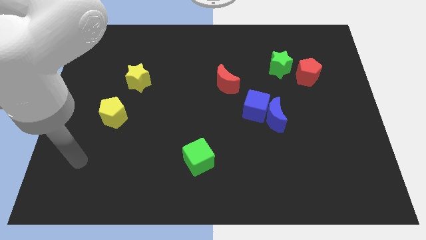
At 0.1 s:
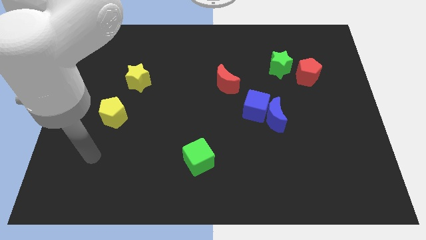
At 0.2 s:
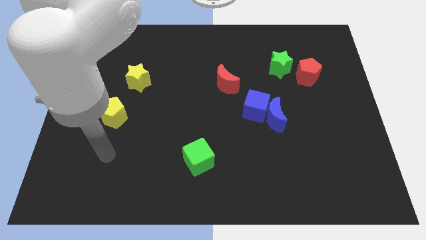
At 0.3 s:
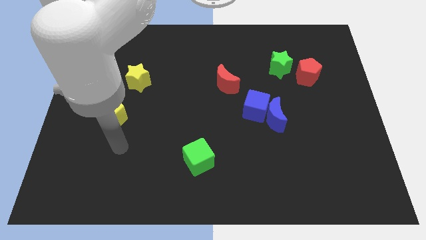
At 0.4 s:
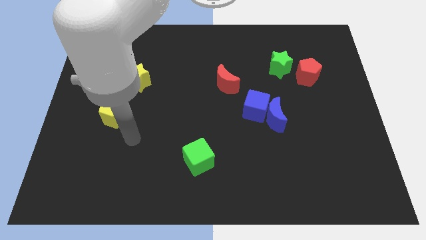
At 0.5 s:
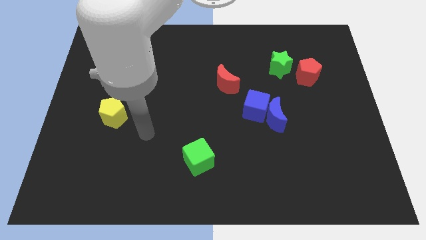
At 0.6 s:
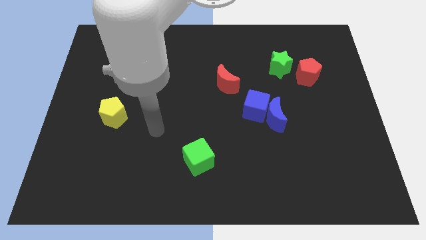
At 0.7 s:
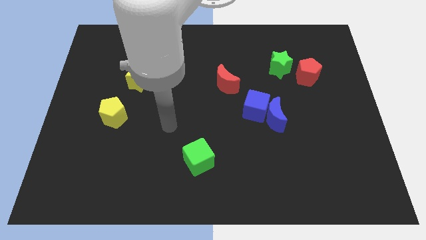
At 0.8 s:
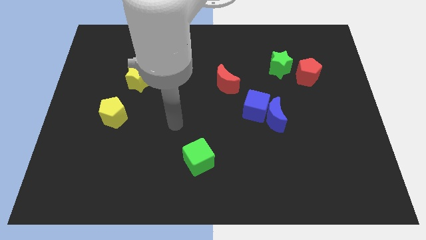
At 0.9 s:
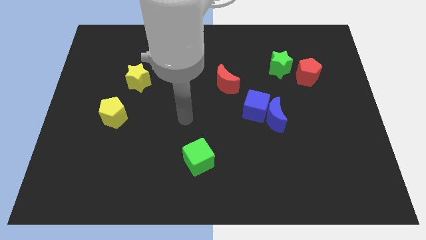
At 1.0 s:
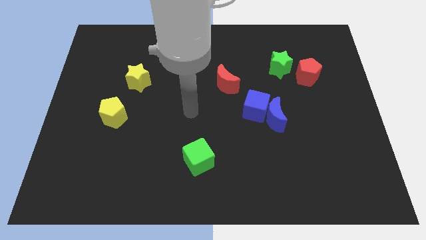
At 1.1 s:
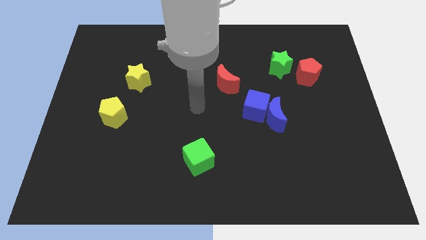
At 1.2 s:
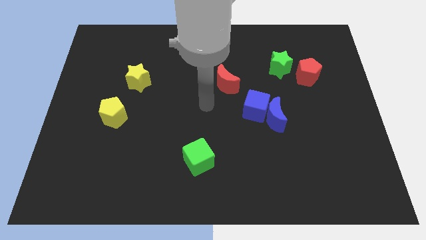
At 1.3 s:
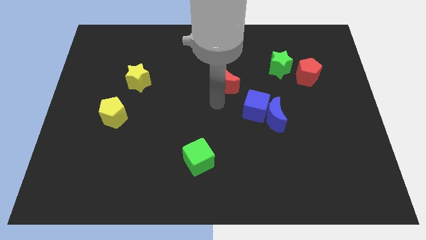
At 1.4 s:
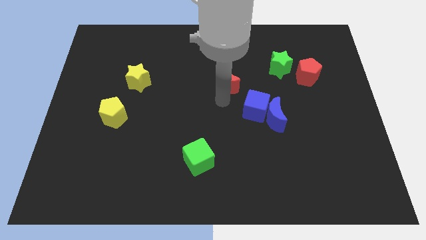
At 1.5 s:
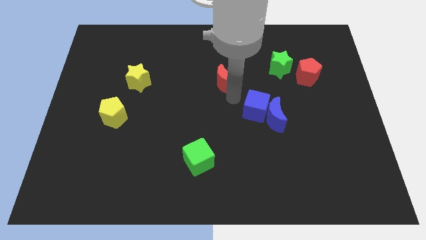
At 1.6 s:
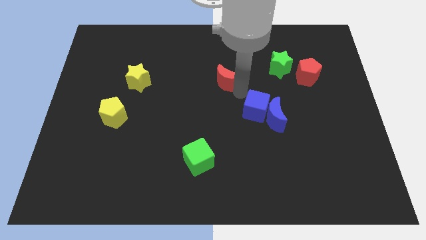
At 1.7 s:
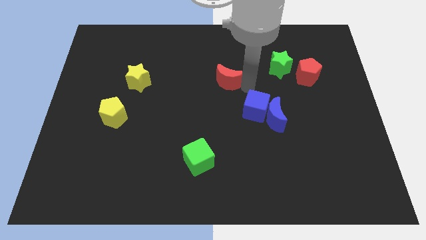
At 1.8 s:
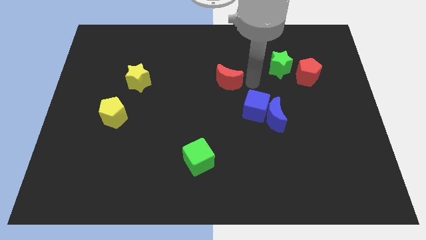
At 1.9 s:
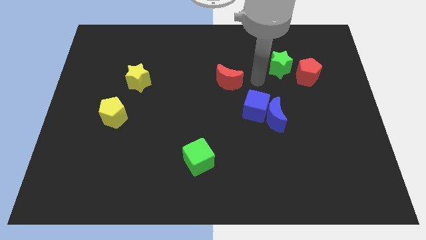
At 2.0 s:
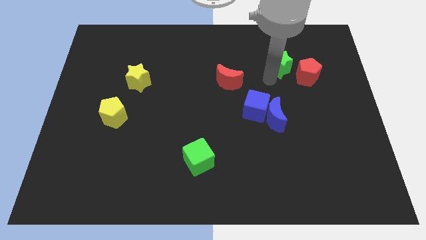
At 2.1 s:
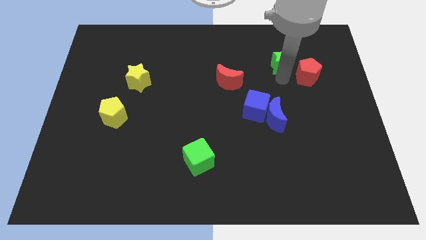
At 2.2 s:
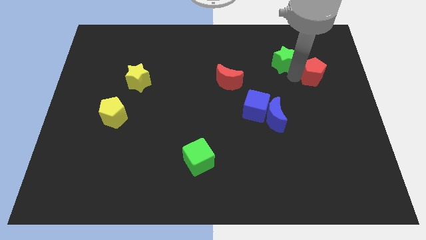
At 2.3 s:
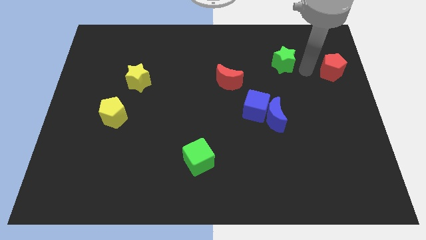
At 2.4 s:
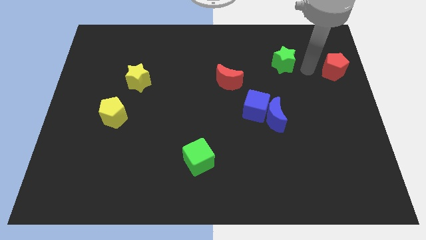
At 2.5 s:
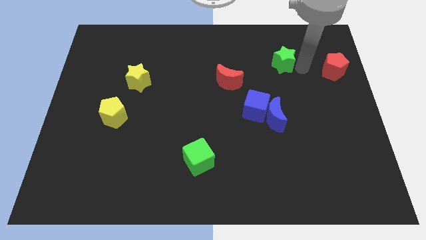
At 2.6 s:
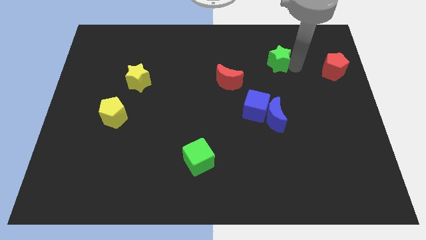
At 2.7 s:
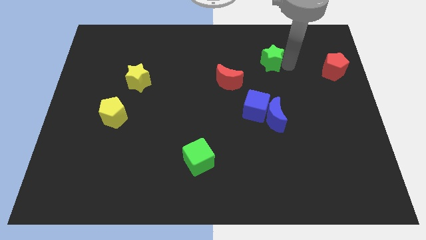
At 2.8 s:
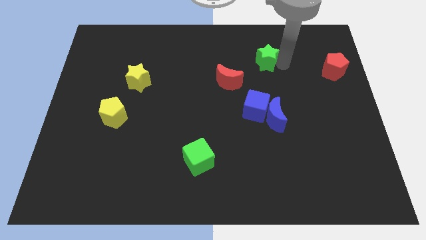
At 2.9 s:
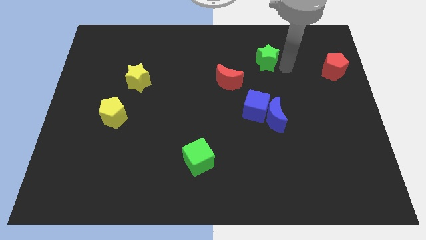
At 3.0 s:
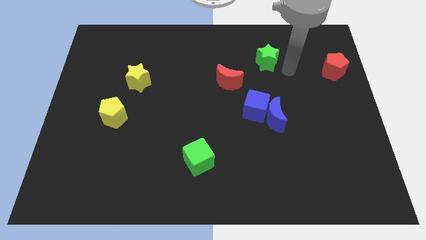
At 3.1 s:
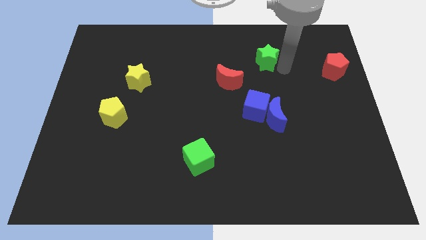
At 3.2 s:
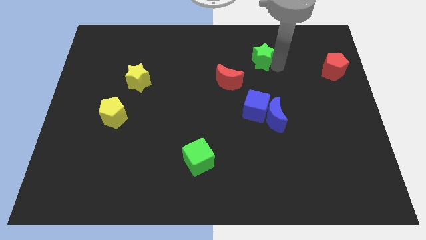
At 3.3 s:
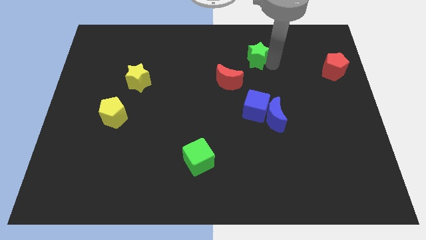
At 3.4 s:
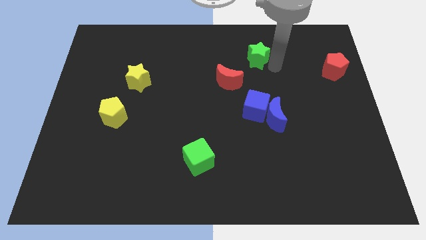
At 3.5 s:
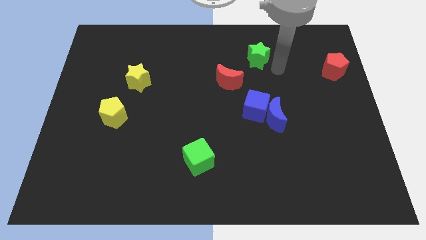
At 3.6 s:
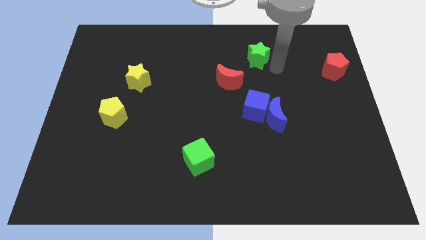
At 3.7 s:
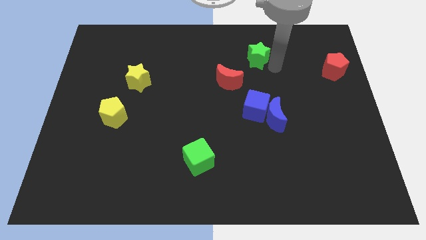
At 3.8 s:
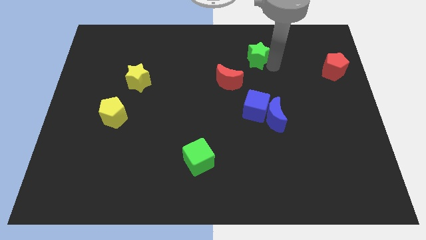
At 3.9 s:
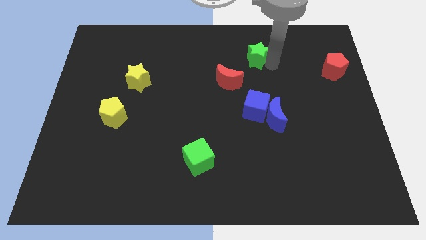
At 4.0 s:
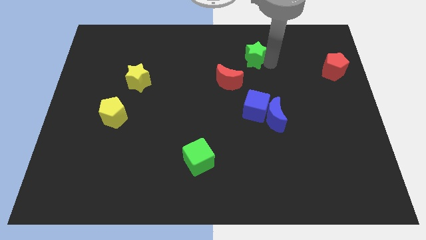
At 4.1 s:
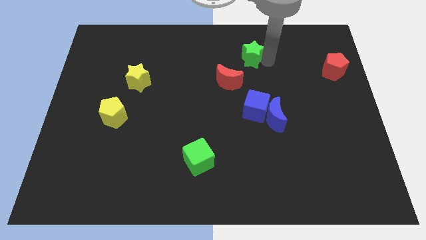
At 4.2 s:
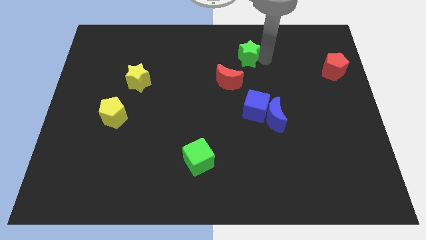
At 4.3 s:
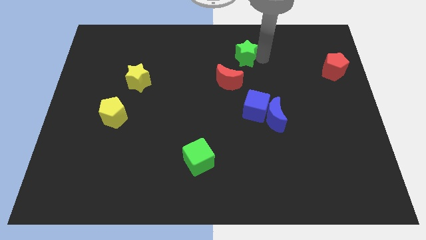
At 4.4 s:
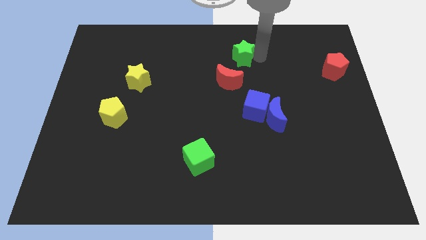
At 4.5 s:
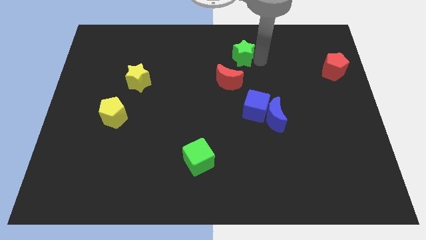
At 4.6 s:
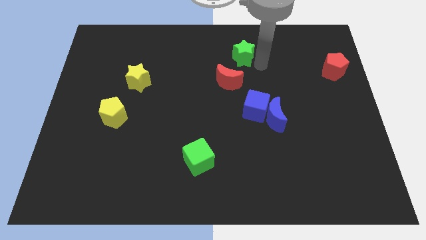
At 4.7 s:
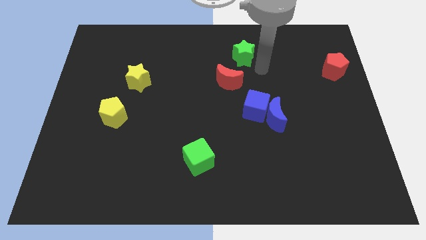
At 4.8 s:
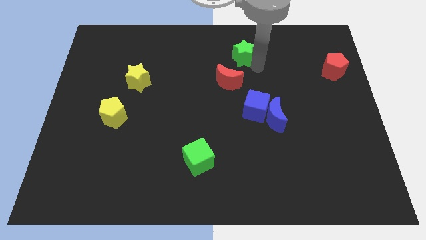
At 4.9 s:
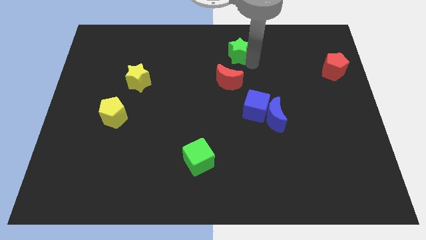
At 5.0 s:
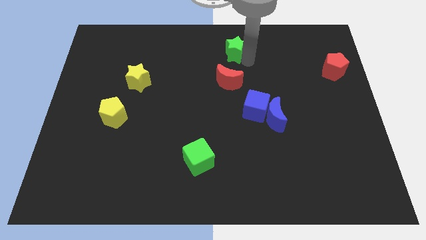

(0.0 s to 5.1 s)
put the green star to the top side

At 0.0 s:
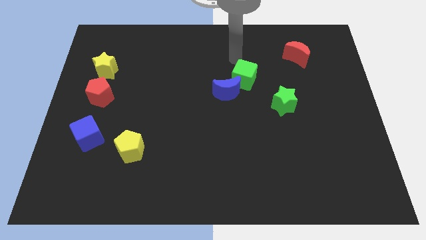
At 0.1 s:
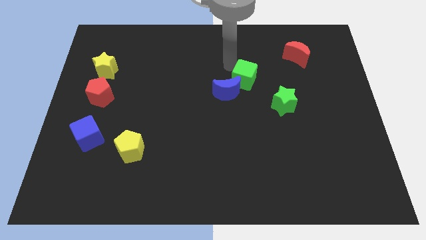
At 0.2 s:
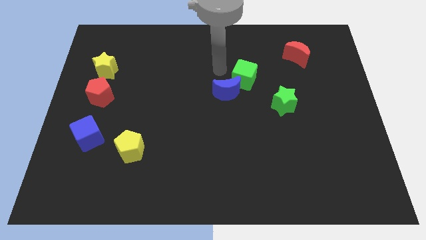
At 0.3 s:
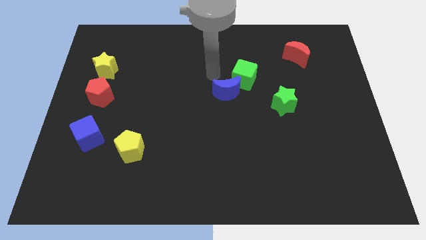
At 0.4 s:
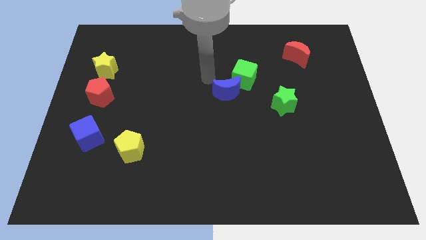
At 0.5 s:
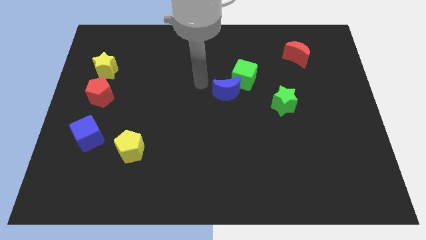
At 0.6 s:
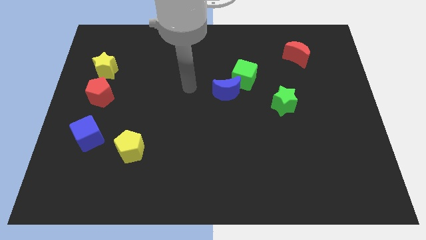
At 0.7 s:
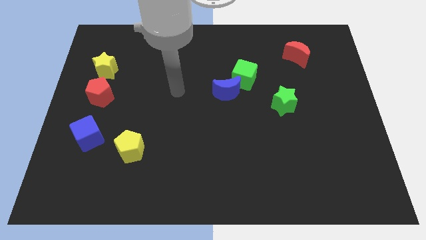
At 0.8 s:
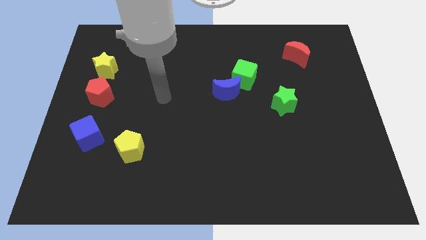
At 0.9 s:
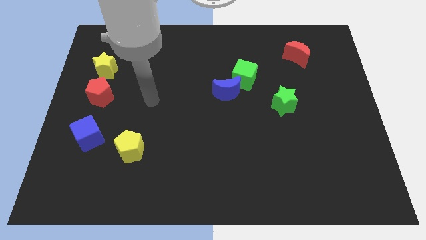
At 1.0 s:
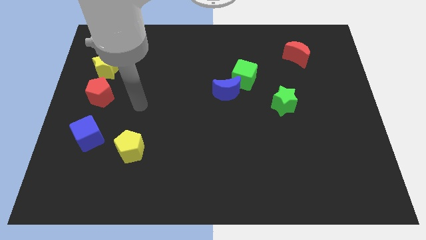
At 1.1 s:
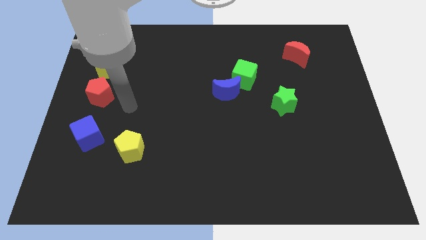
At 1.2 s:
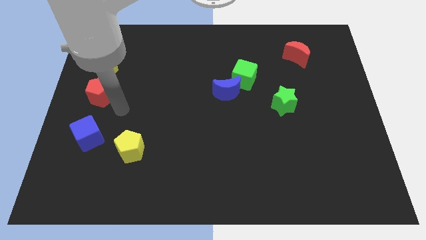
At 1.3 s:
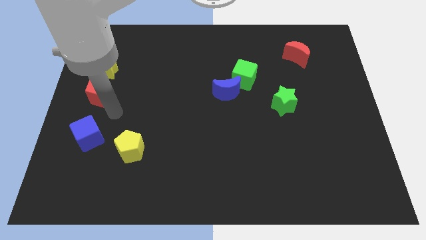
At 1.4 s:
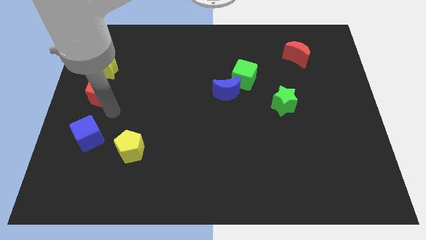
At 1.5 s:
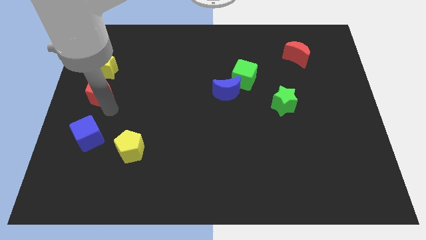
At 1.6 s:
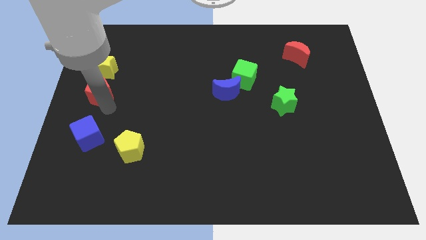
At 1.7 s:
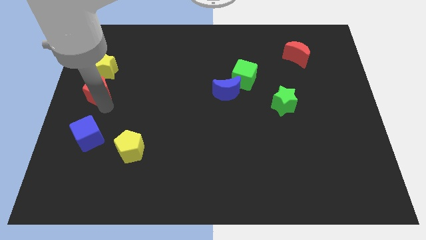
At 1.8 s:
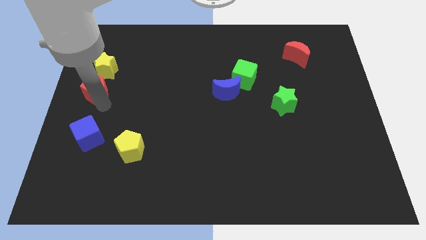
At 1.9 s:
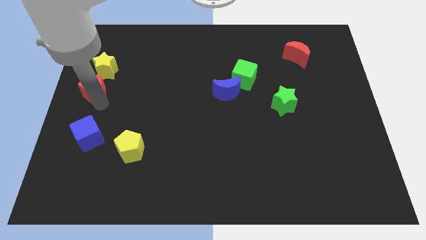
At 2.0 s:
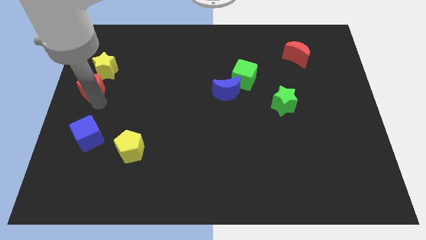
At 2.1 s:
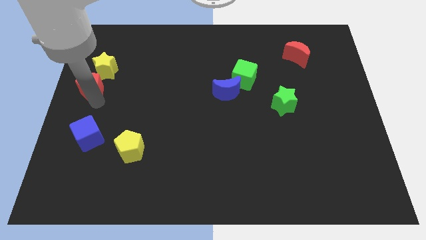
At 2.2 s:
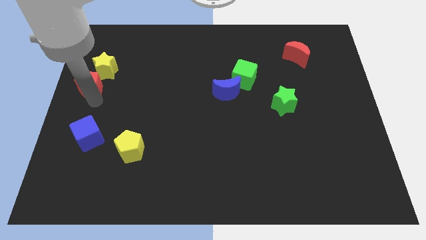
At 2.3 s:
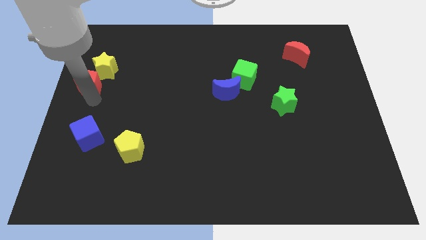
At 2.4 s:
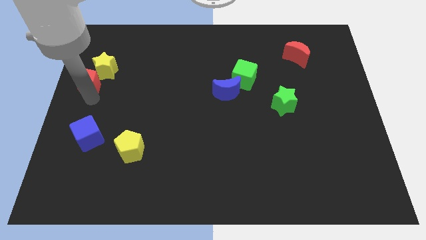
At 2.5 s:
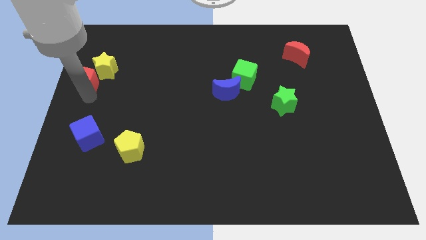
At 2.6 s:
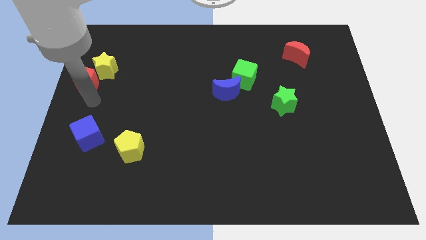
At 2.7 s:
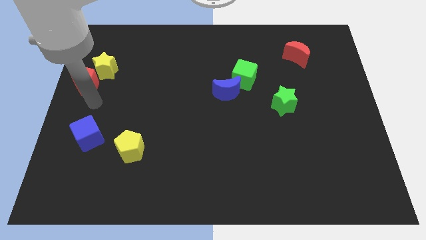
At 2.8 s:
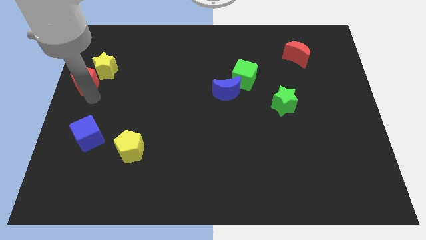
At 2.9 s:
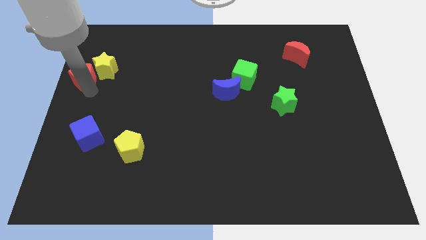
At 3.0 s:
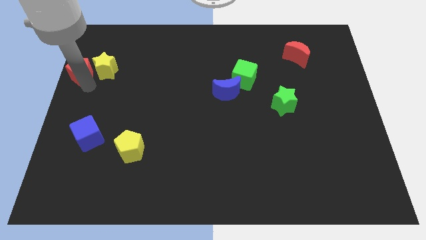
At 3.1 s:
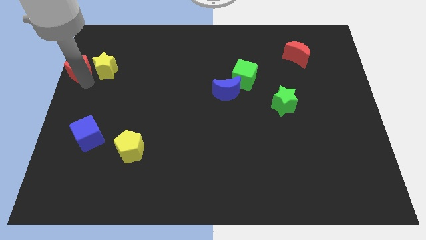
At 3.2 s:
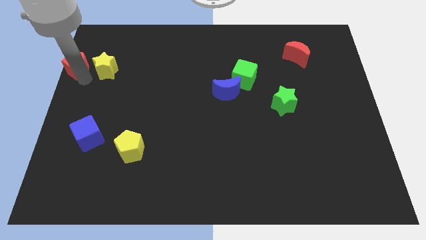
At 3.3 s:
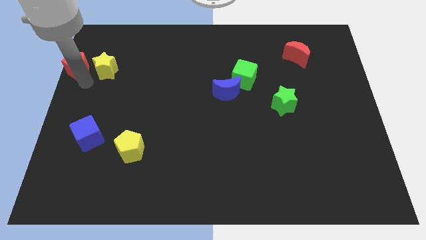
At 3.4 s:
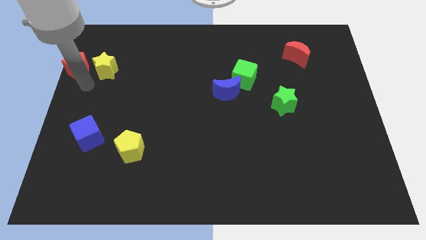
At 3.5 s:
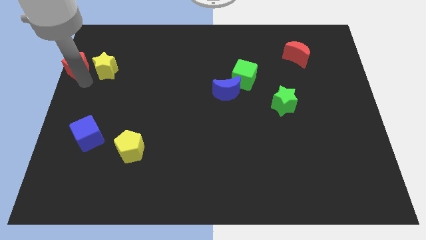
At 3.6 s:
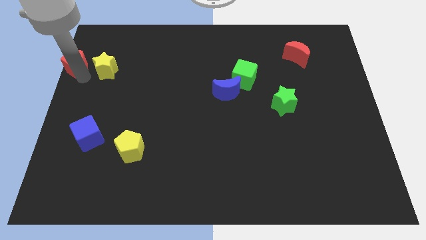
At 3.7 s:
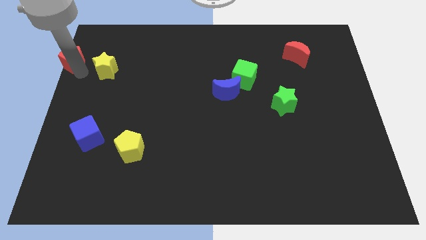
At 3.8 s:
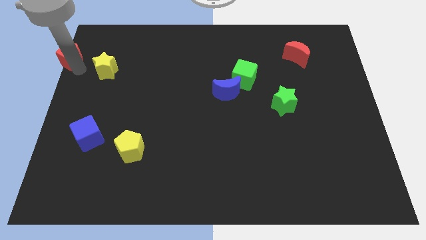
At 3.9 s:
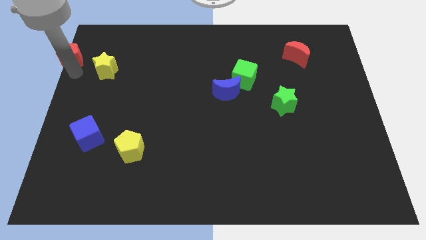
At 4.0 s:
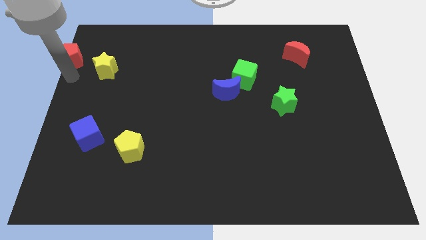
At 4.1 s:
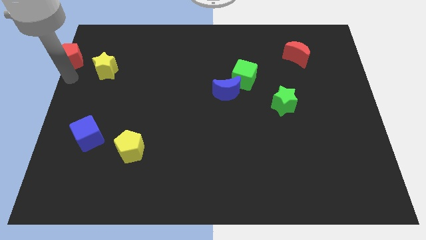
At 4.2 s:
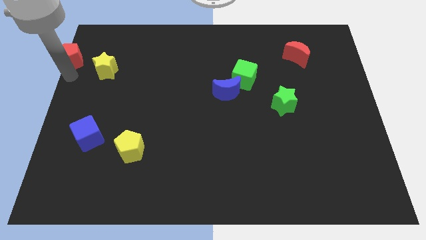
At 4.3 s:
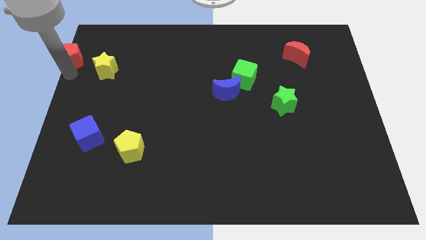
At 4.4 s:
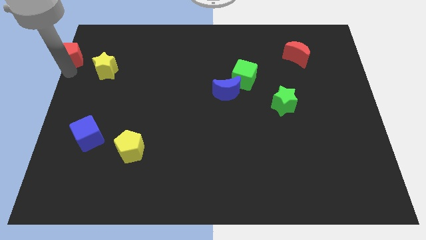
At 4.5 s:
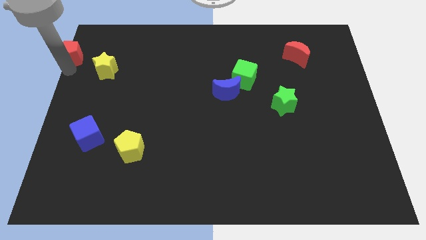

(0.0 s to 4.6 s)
slide the red pentagon to the top left of the board
